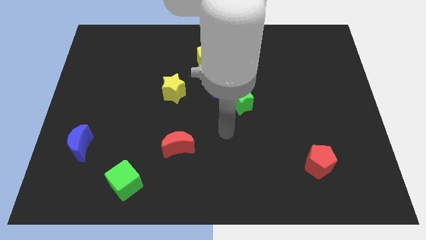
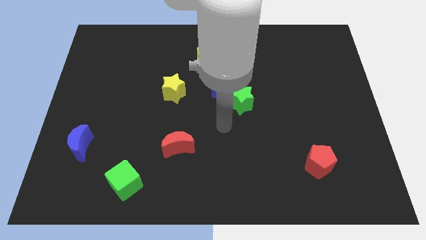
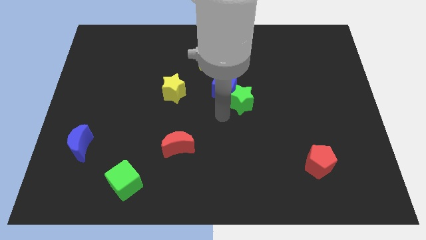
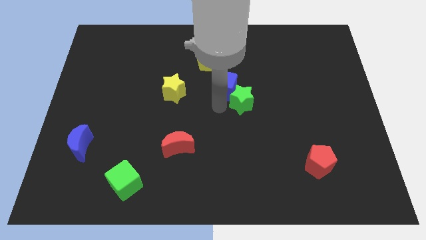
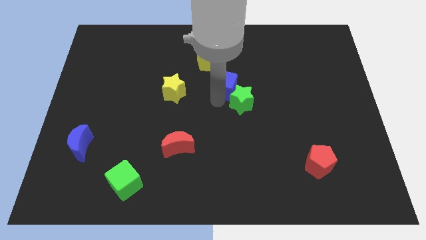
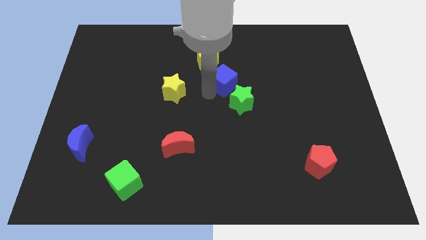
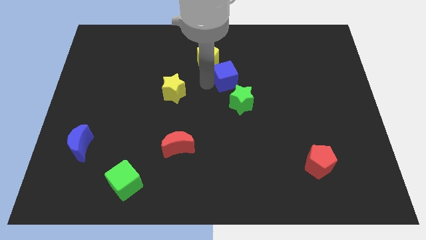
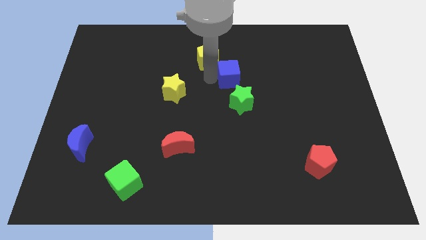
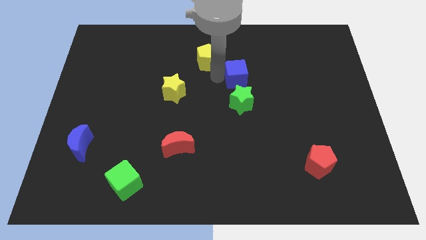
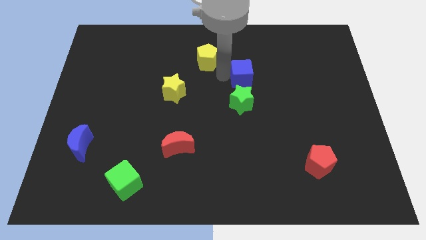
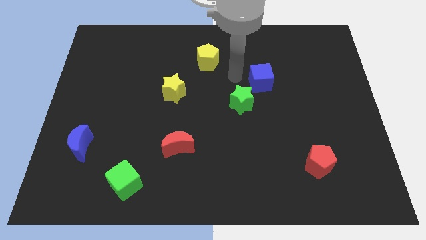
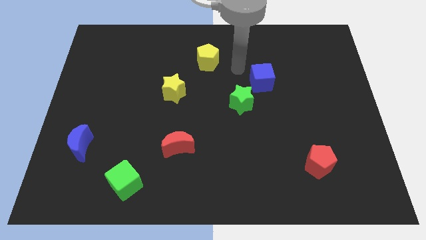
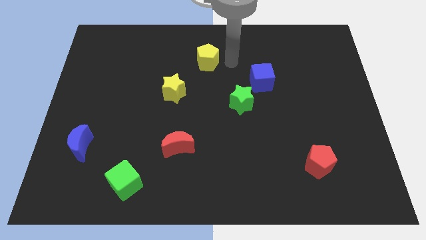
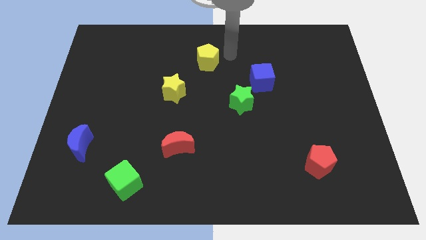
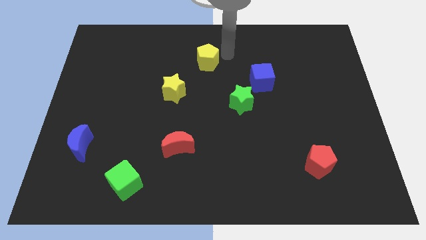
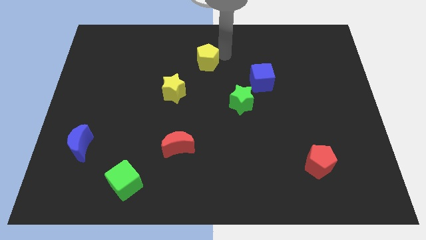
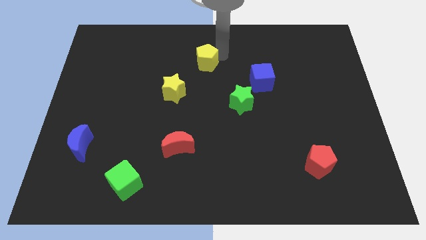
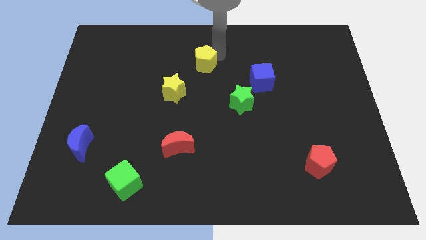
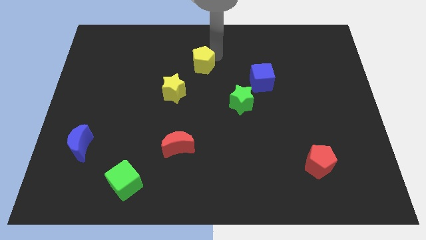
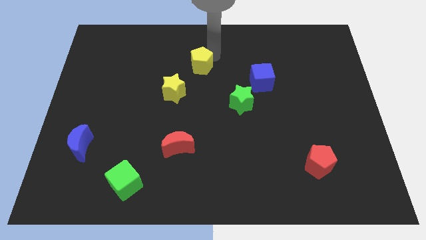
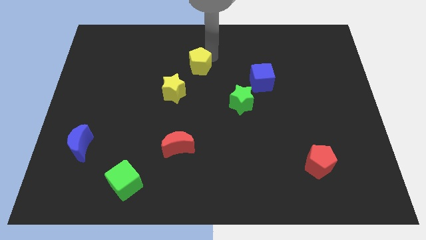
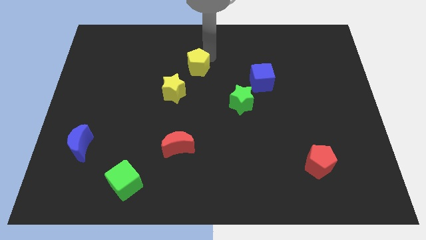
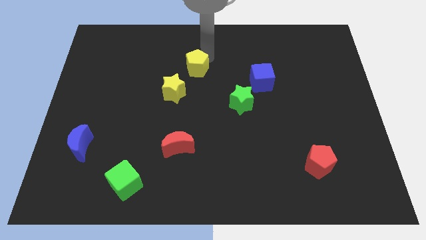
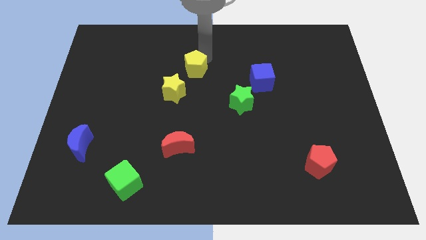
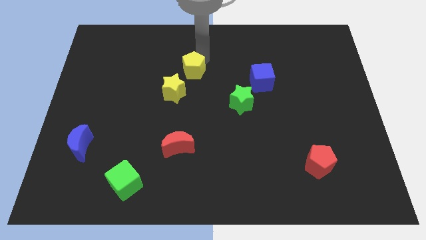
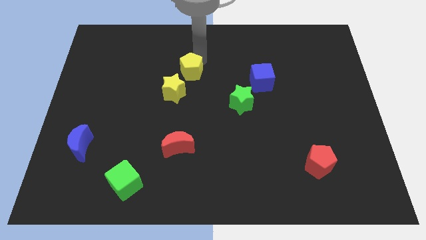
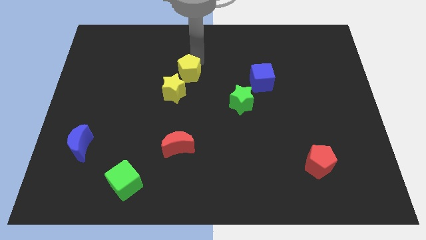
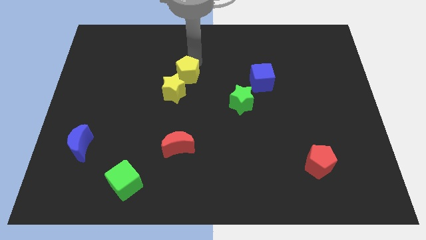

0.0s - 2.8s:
slide the yellow pentagon down and then left a bit

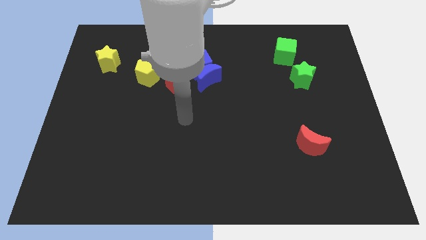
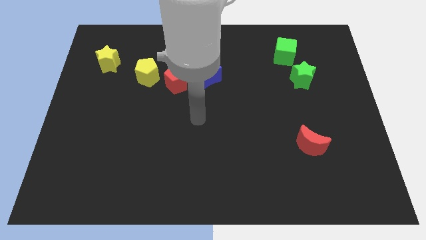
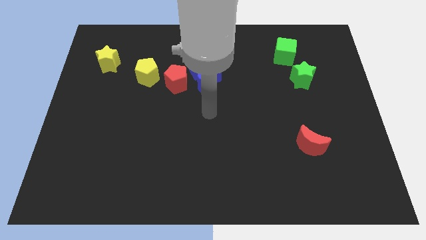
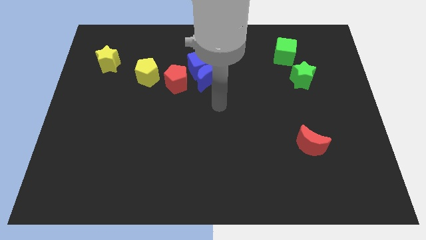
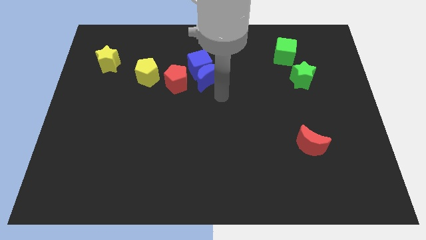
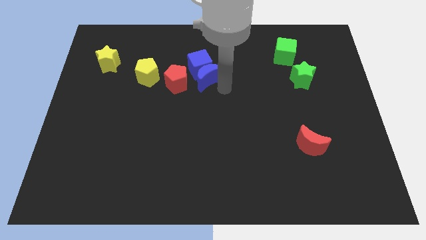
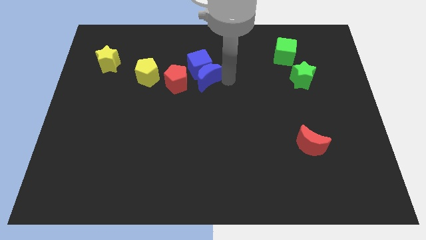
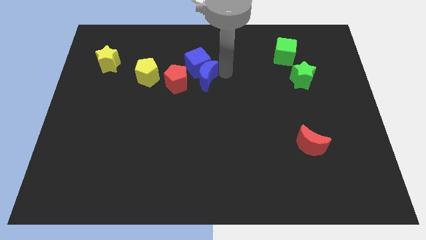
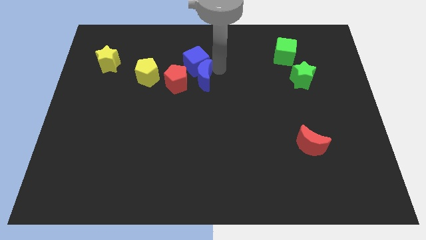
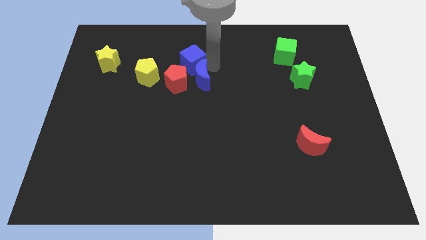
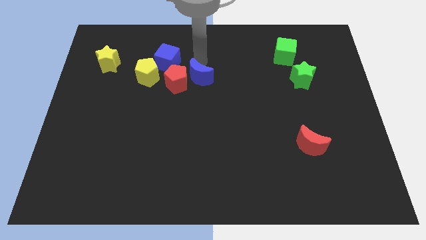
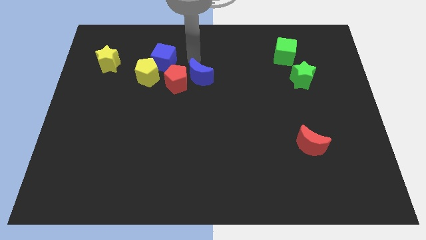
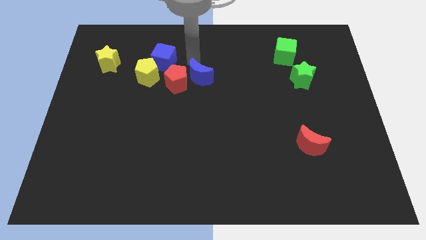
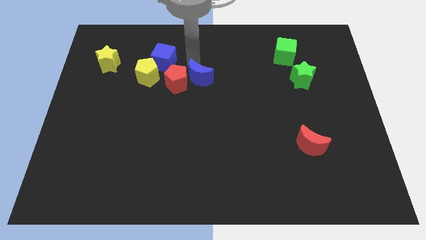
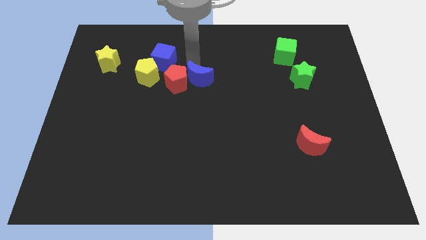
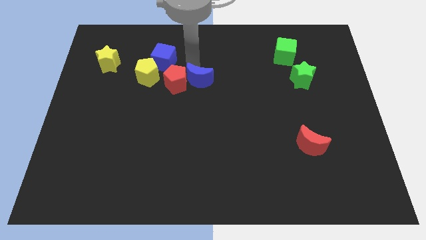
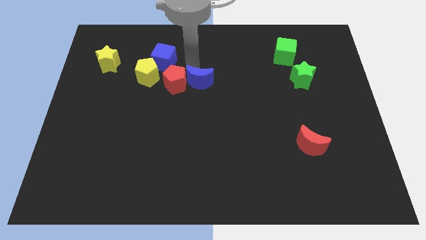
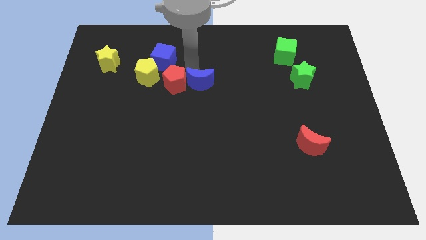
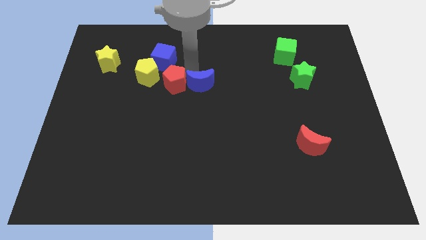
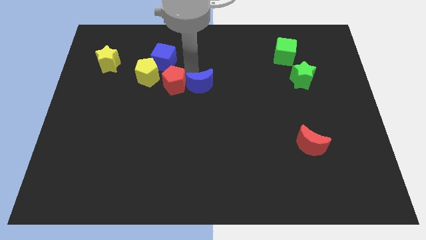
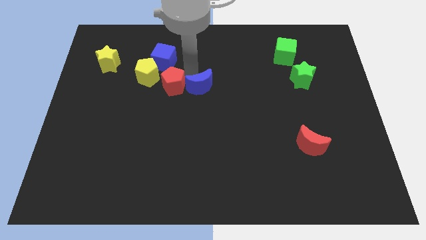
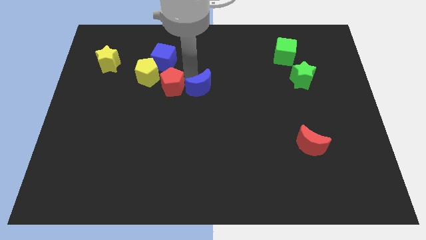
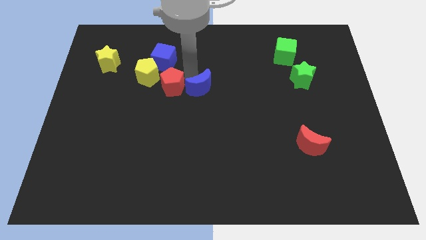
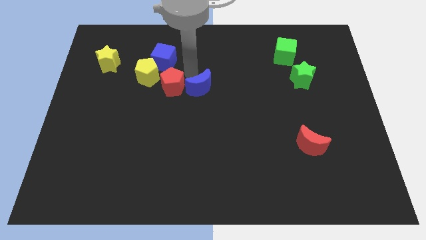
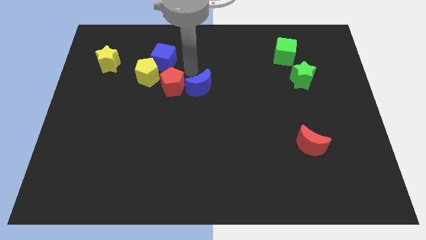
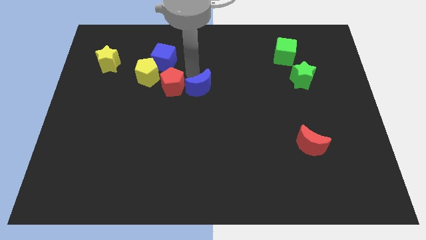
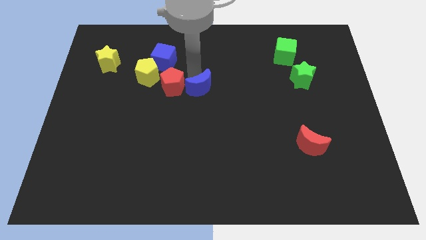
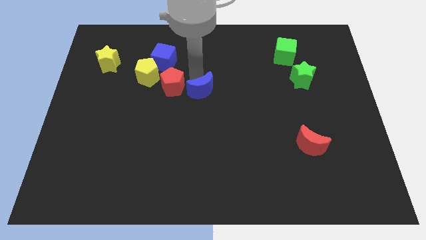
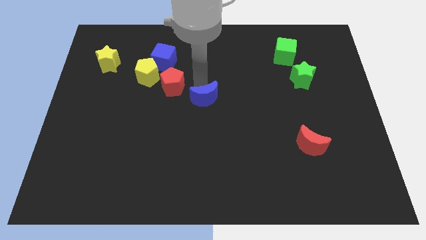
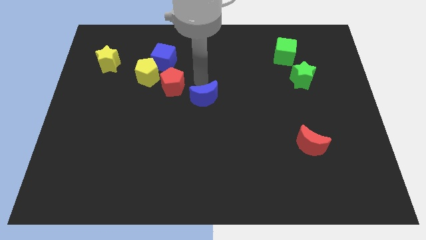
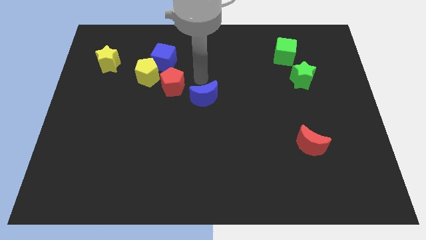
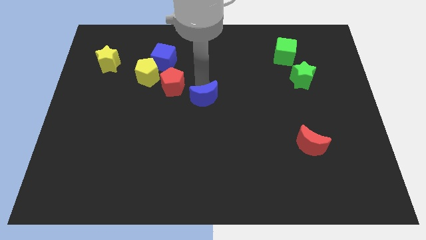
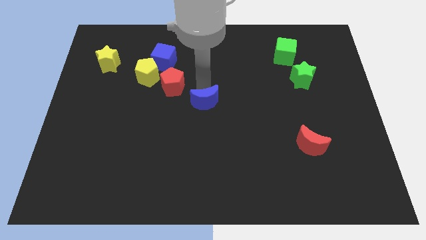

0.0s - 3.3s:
slightly push the blue moon downwards

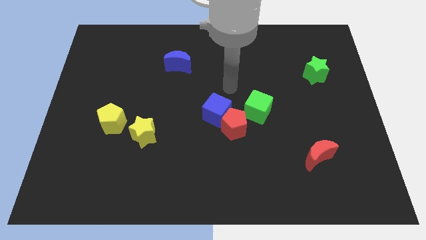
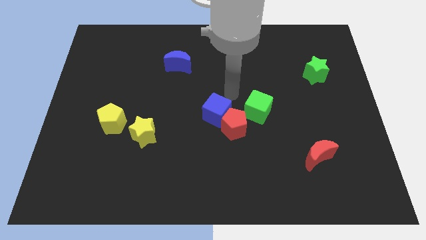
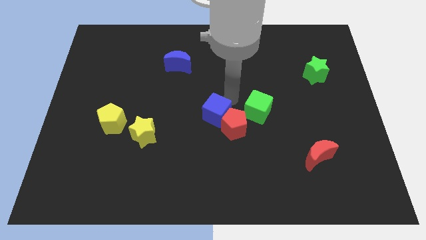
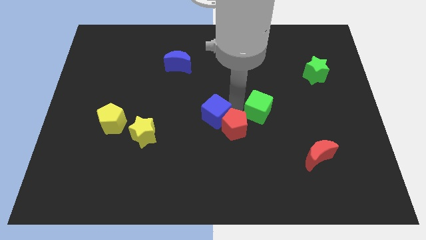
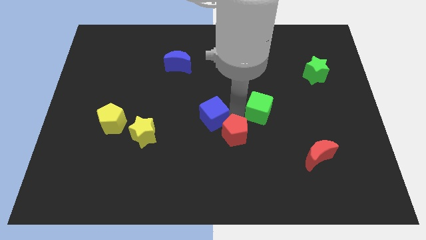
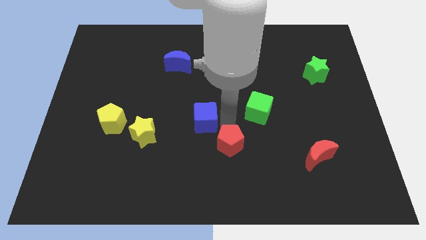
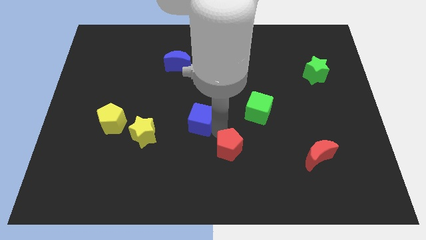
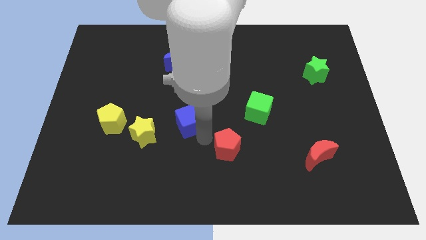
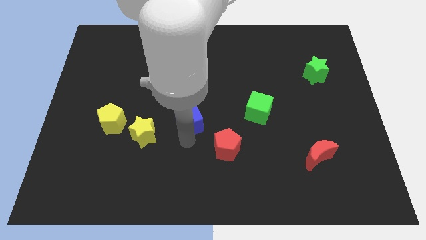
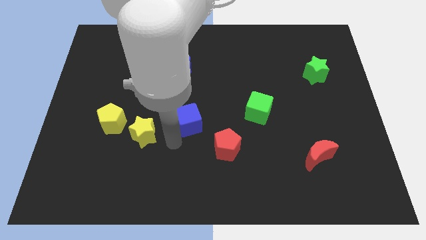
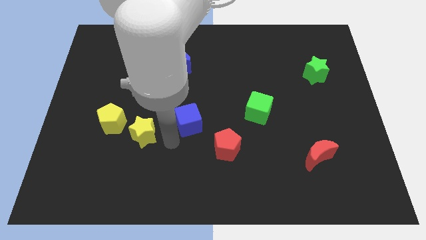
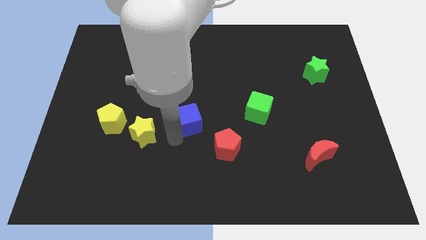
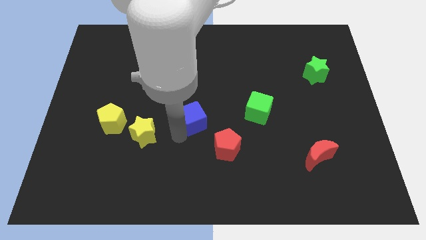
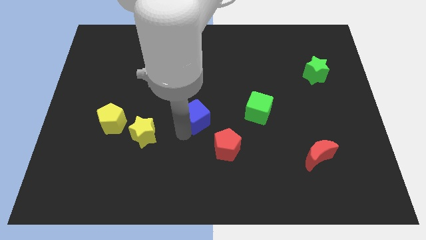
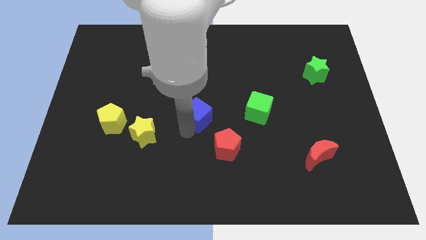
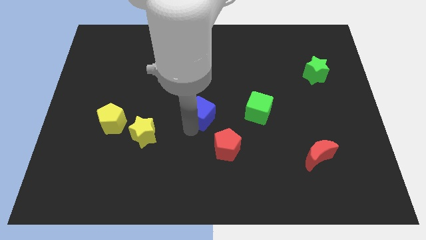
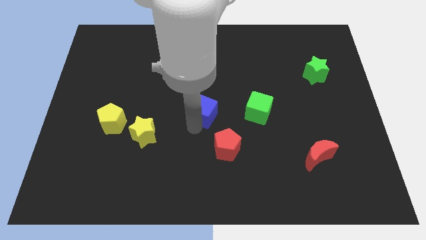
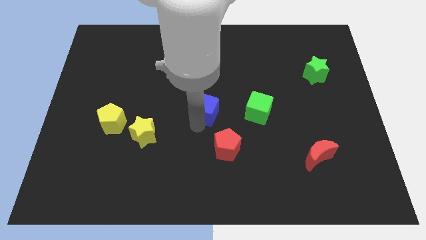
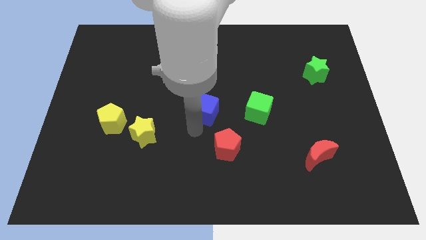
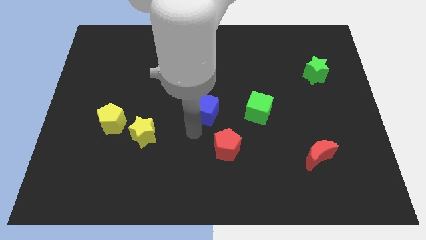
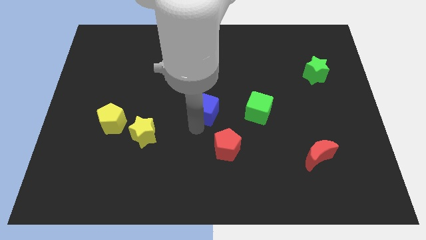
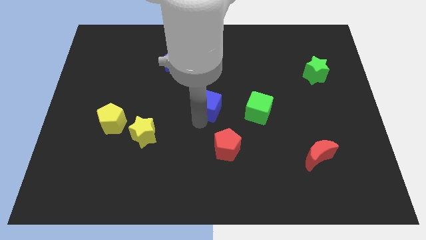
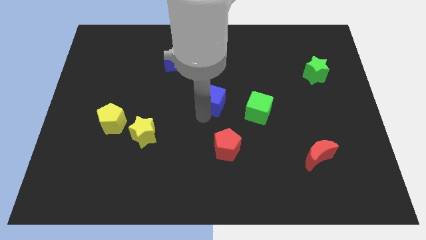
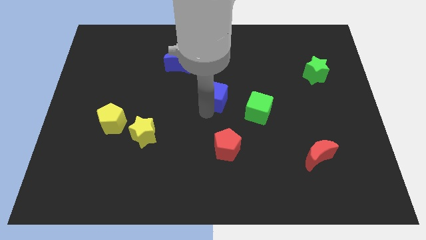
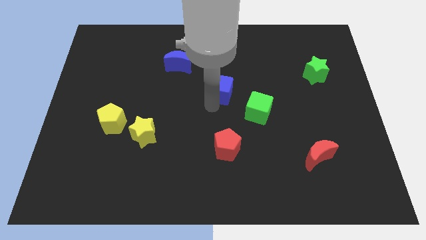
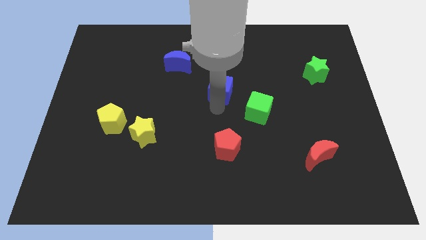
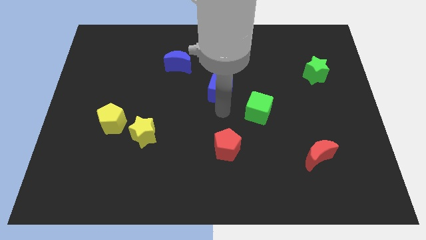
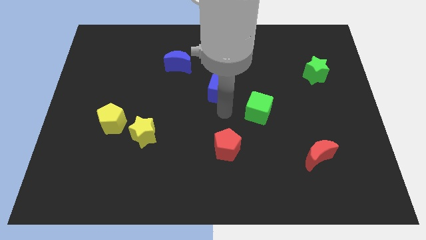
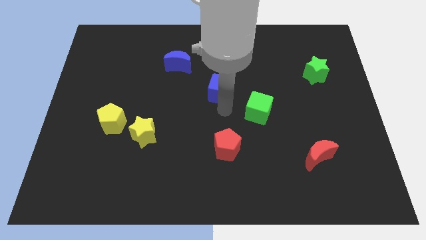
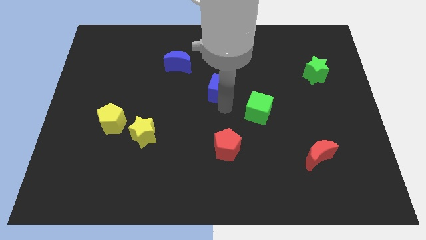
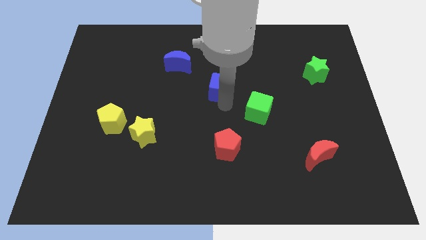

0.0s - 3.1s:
slide the blue cube upwards somewhat
